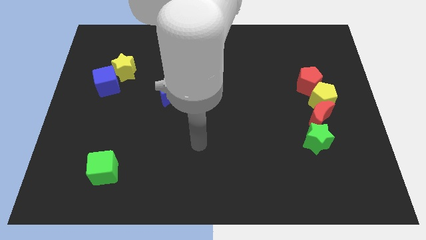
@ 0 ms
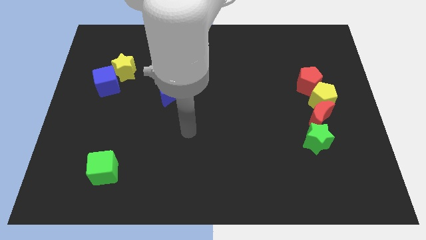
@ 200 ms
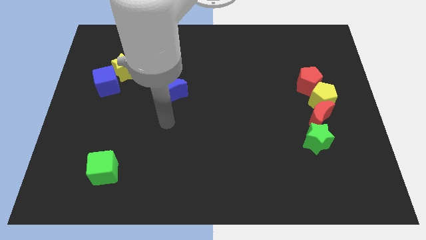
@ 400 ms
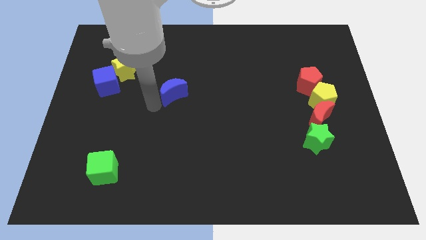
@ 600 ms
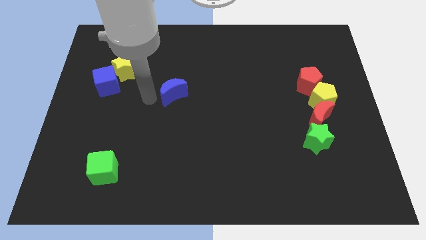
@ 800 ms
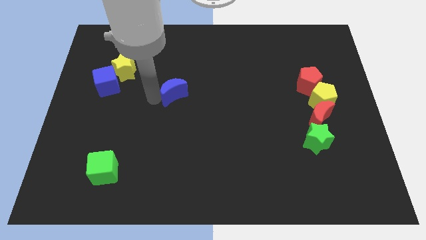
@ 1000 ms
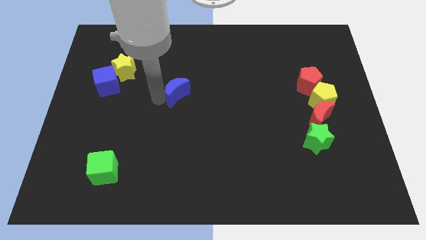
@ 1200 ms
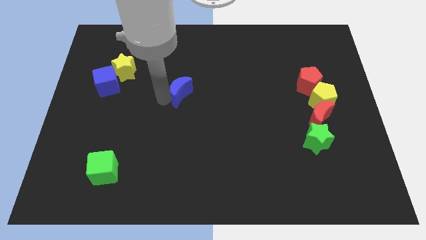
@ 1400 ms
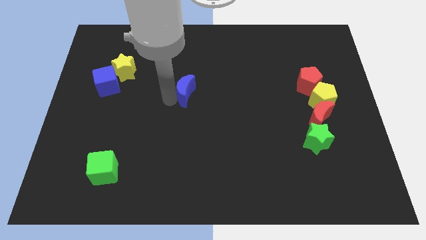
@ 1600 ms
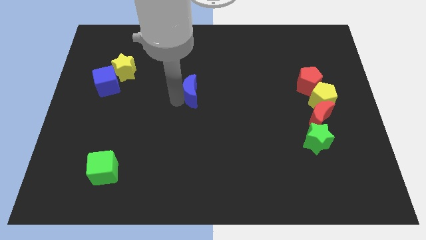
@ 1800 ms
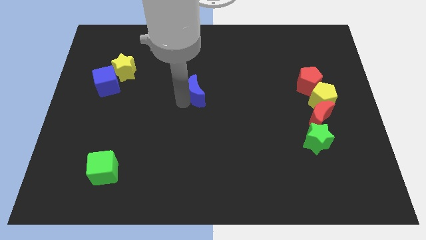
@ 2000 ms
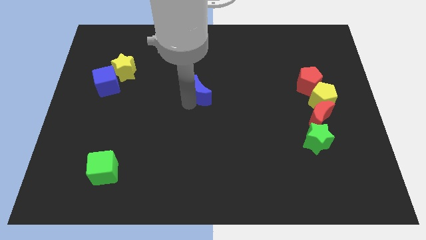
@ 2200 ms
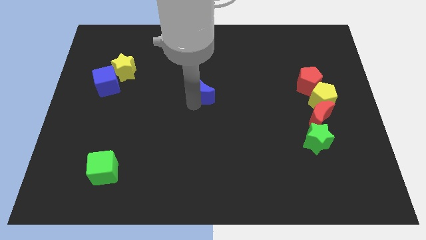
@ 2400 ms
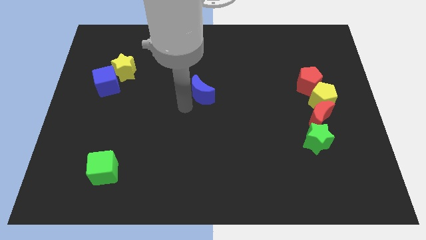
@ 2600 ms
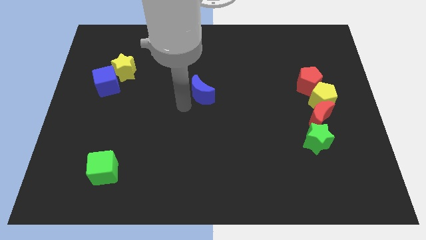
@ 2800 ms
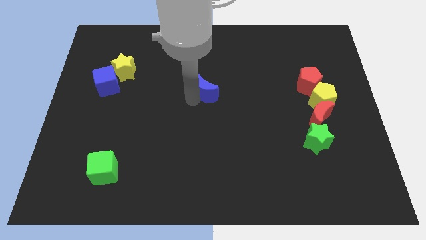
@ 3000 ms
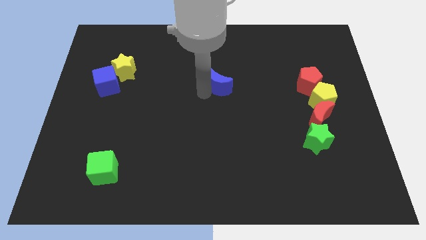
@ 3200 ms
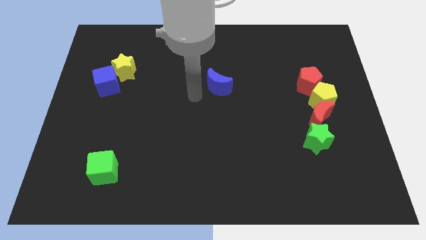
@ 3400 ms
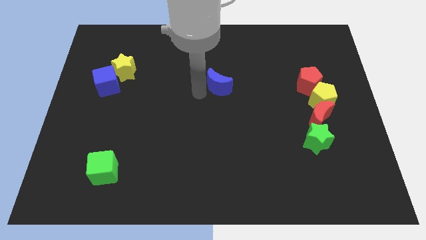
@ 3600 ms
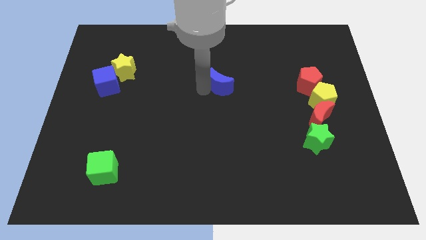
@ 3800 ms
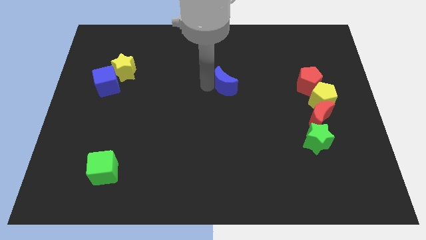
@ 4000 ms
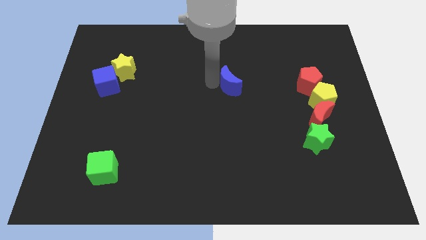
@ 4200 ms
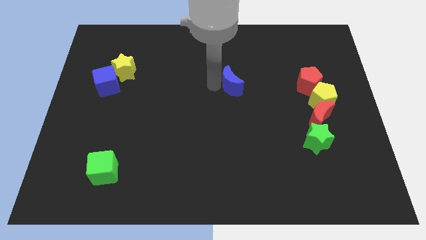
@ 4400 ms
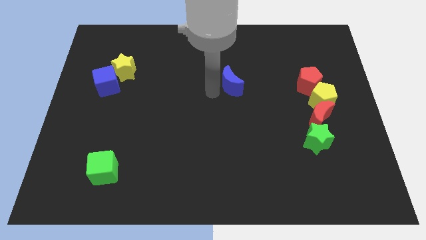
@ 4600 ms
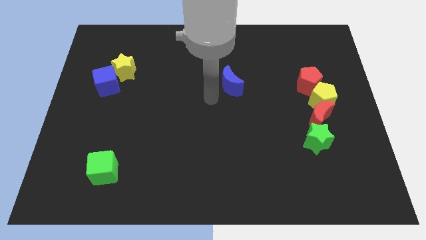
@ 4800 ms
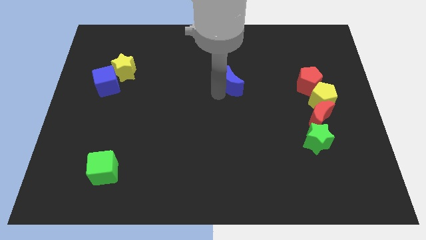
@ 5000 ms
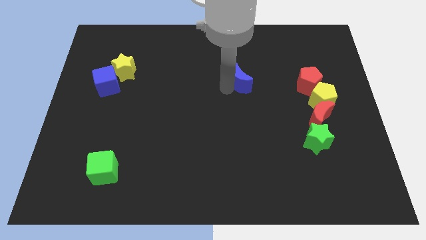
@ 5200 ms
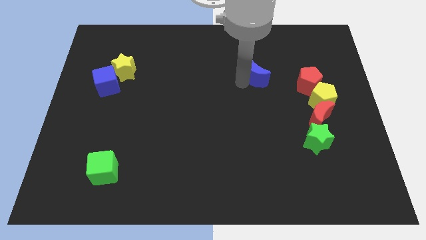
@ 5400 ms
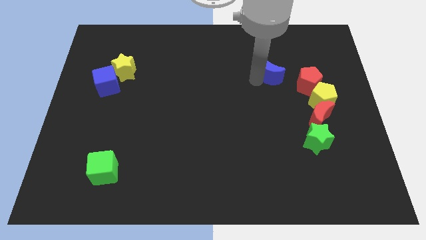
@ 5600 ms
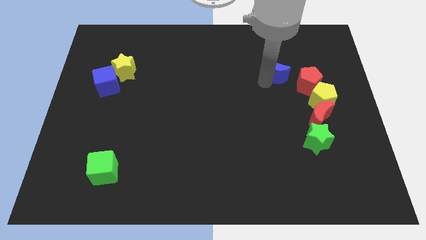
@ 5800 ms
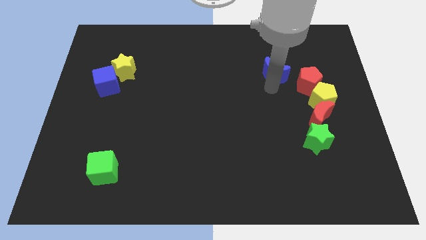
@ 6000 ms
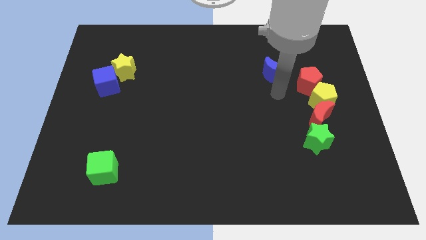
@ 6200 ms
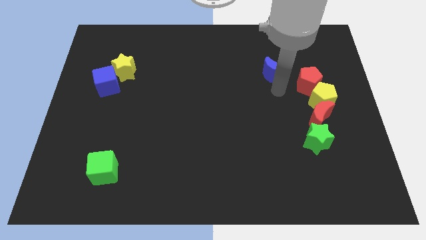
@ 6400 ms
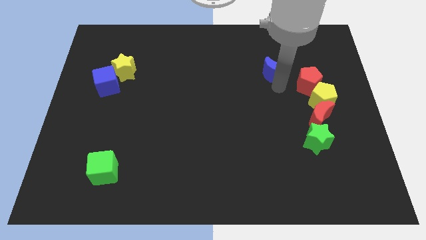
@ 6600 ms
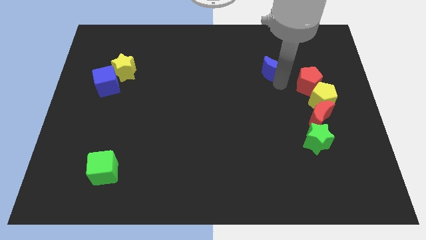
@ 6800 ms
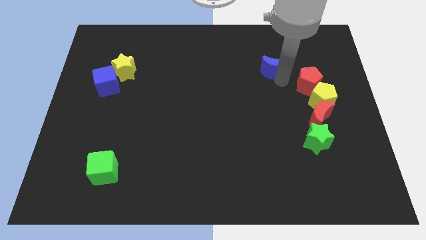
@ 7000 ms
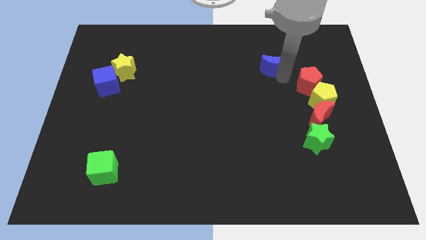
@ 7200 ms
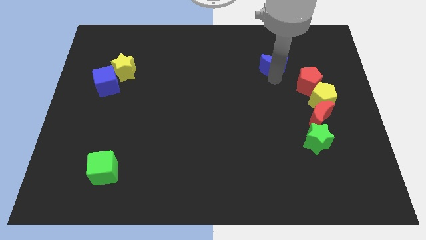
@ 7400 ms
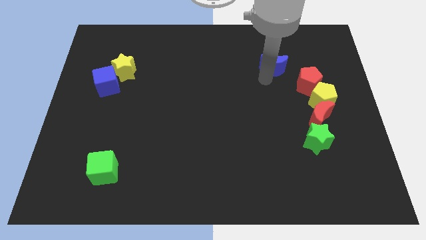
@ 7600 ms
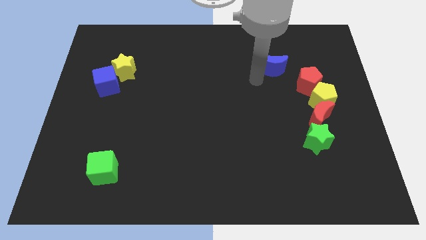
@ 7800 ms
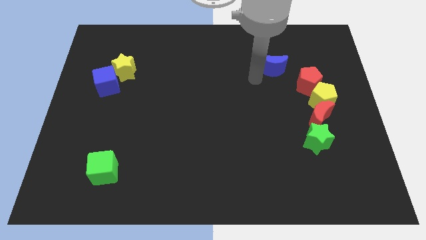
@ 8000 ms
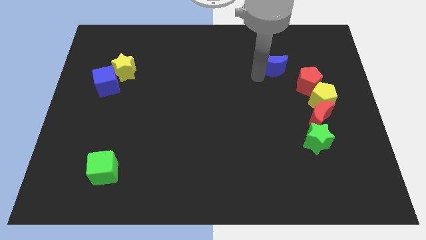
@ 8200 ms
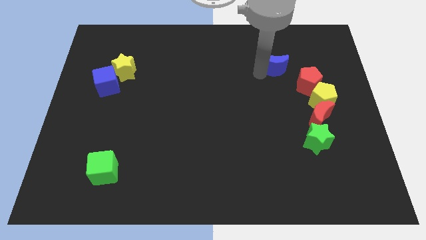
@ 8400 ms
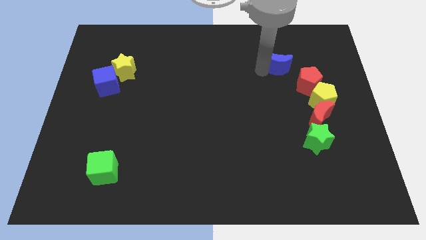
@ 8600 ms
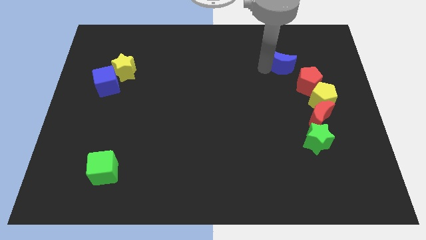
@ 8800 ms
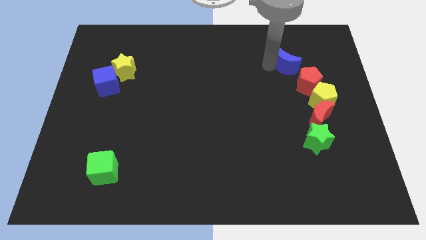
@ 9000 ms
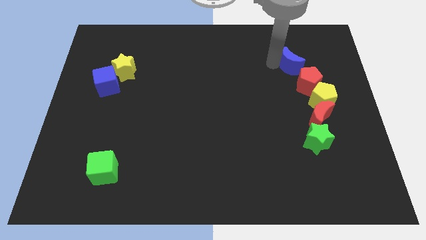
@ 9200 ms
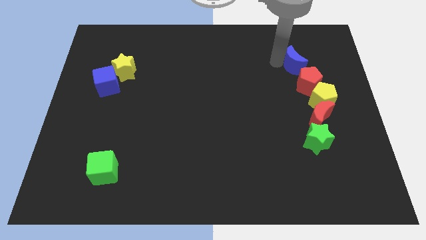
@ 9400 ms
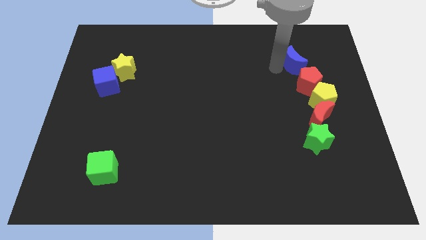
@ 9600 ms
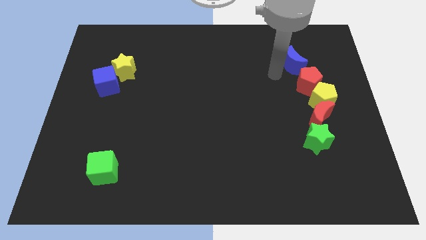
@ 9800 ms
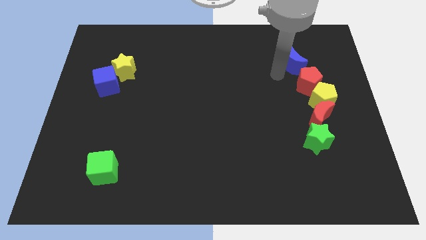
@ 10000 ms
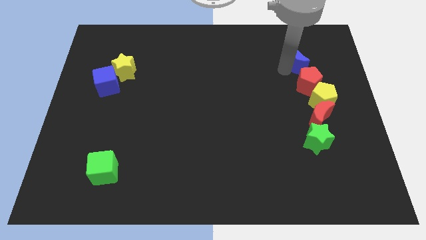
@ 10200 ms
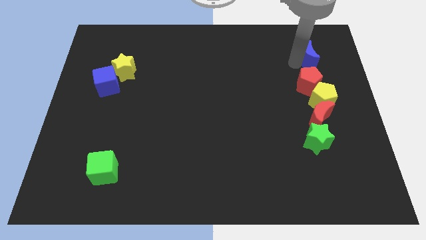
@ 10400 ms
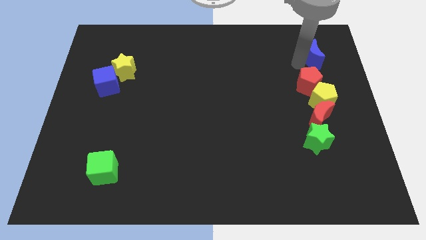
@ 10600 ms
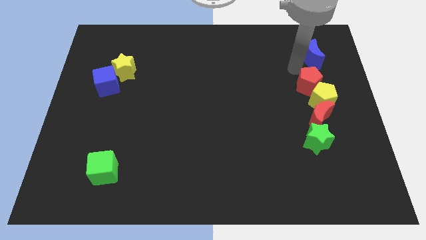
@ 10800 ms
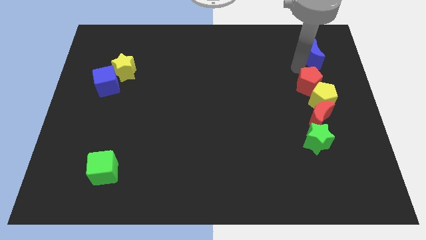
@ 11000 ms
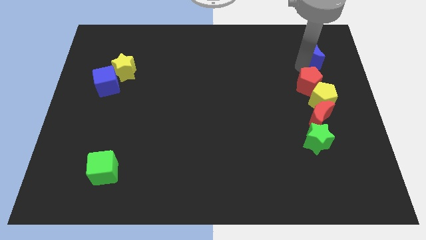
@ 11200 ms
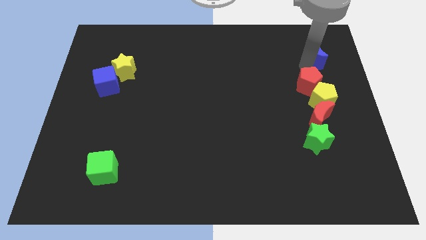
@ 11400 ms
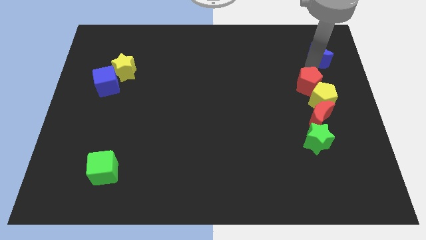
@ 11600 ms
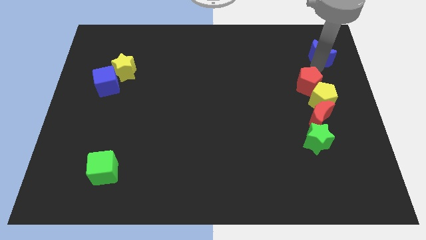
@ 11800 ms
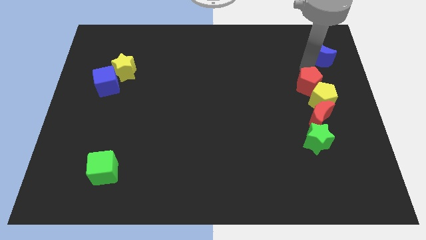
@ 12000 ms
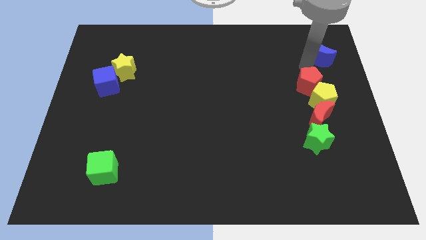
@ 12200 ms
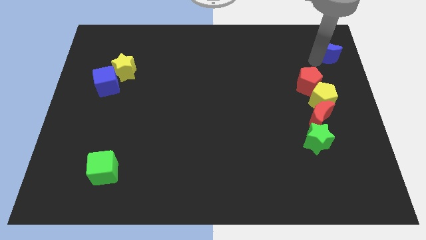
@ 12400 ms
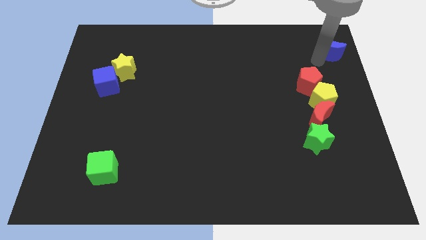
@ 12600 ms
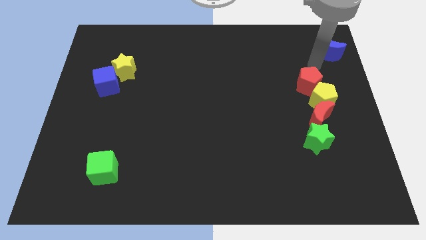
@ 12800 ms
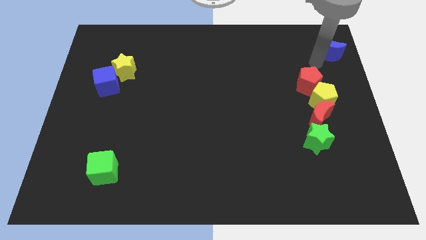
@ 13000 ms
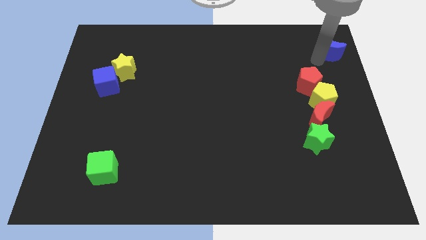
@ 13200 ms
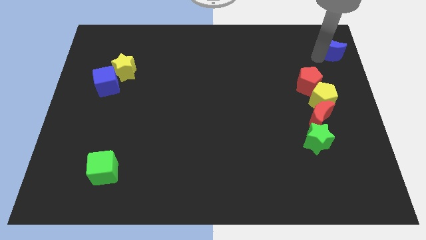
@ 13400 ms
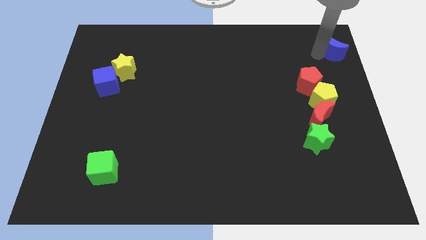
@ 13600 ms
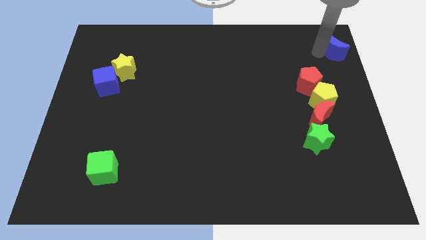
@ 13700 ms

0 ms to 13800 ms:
push the blue moon to the upper right corner
